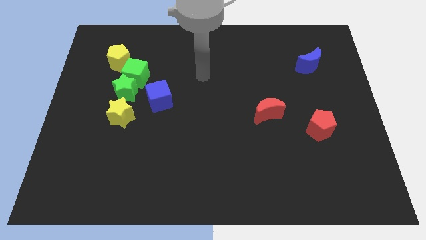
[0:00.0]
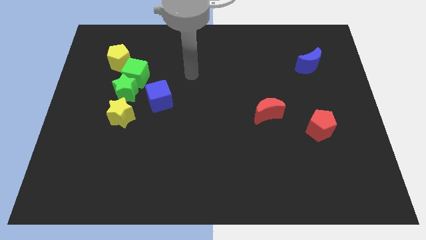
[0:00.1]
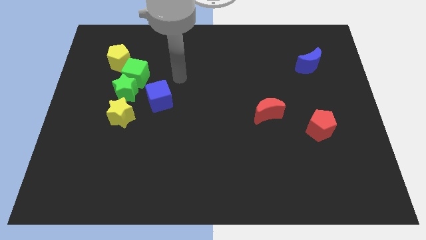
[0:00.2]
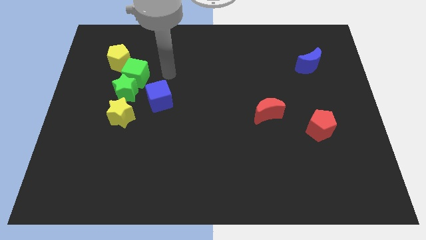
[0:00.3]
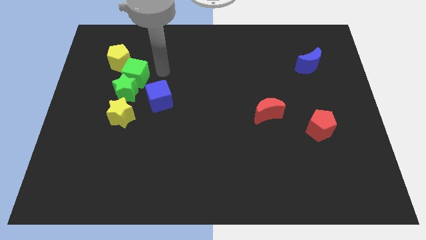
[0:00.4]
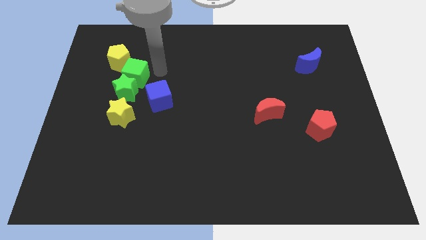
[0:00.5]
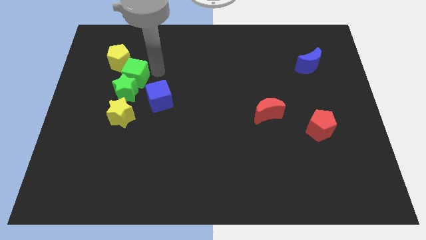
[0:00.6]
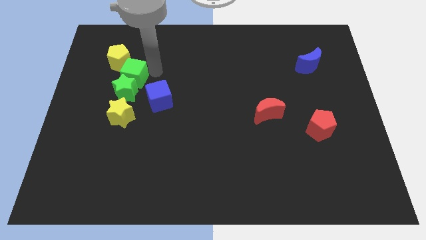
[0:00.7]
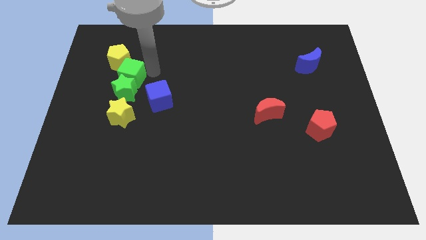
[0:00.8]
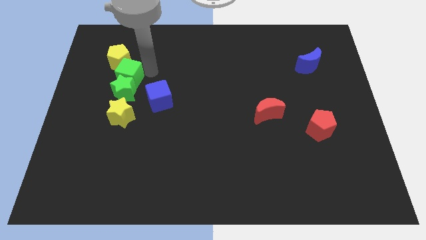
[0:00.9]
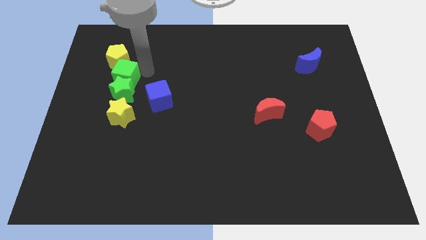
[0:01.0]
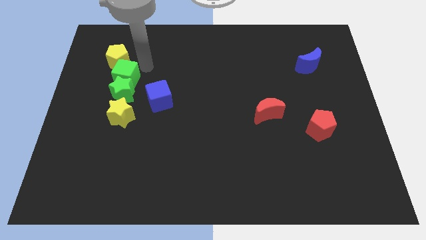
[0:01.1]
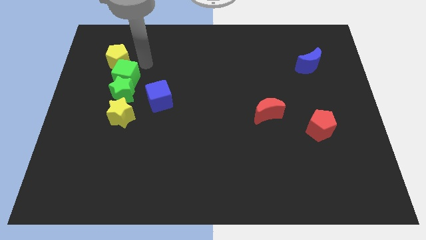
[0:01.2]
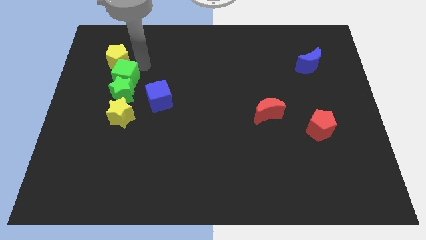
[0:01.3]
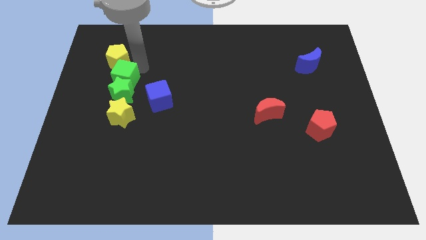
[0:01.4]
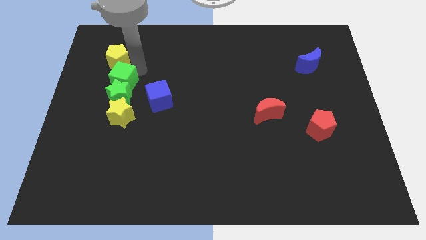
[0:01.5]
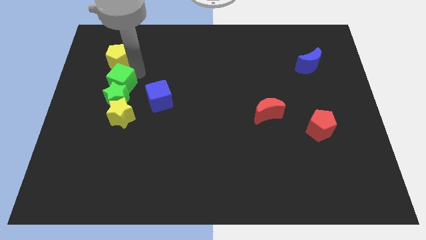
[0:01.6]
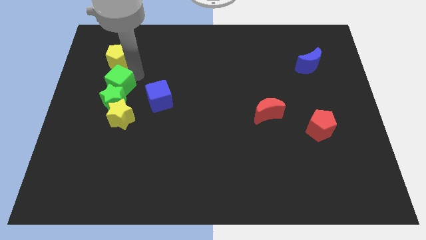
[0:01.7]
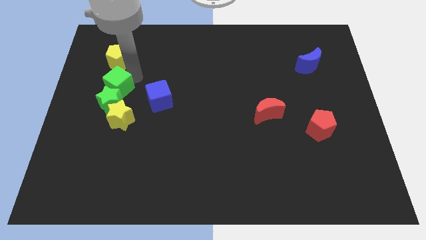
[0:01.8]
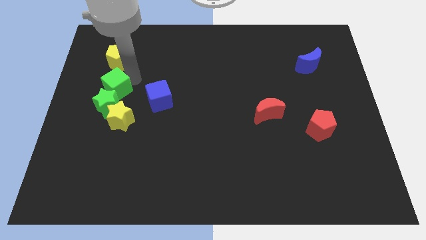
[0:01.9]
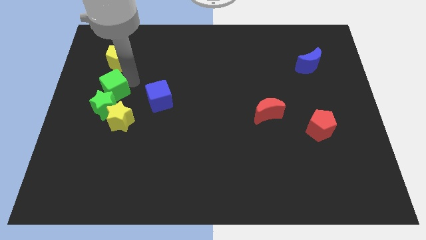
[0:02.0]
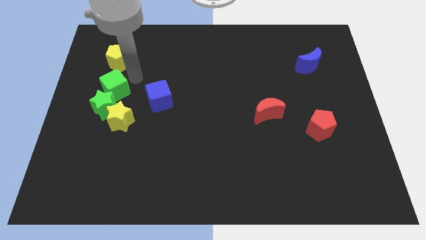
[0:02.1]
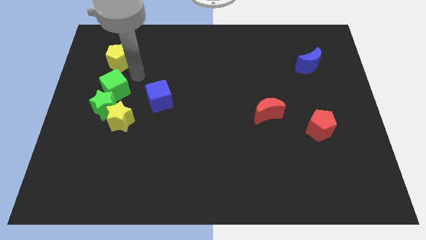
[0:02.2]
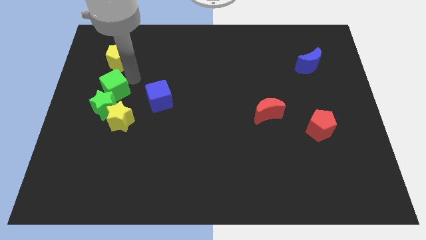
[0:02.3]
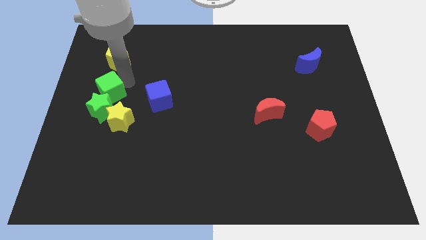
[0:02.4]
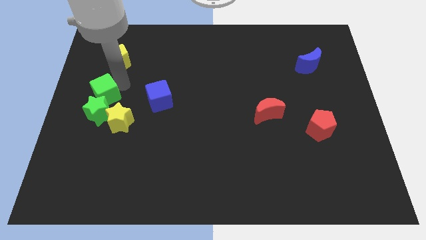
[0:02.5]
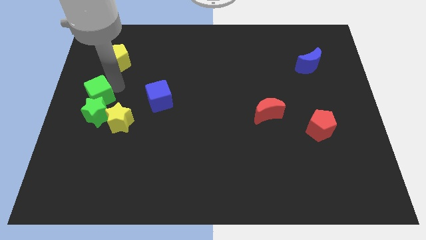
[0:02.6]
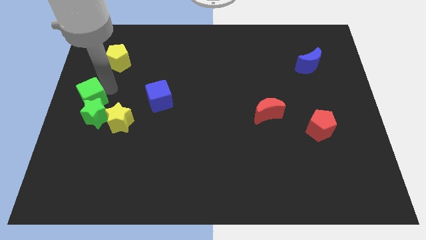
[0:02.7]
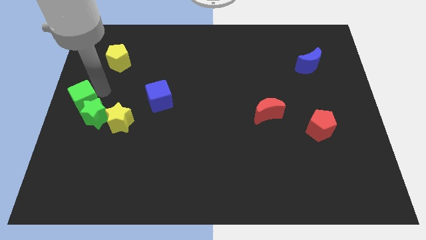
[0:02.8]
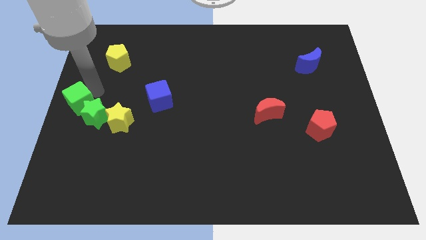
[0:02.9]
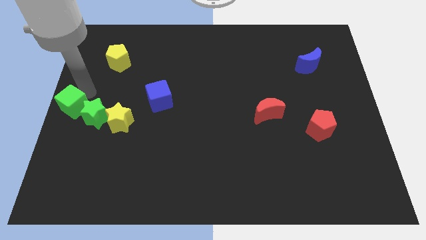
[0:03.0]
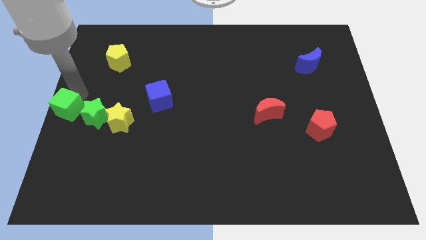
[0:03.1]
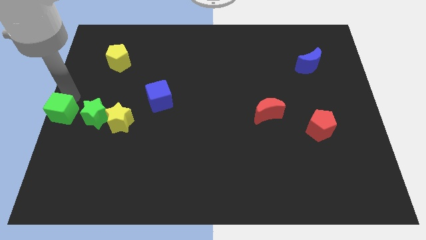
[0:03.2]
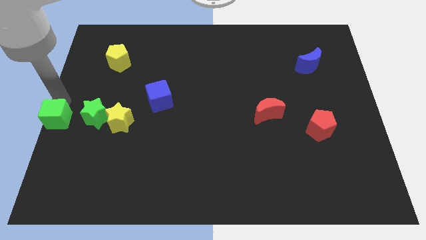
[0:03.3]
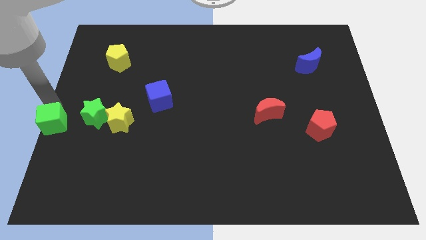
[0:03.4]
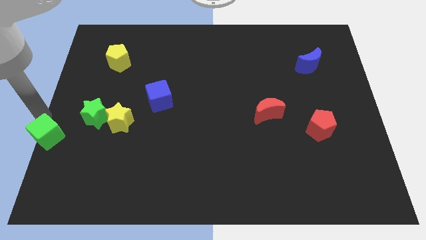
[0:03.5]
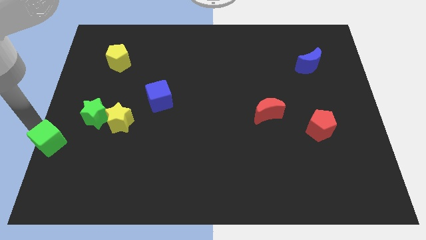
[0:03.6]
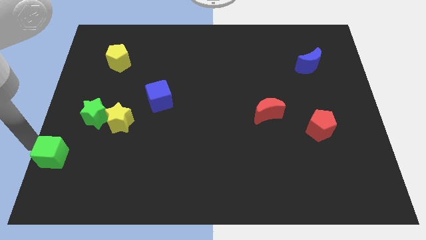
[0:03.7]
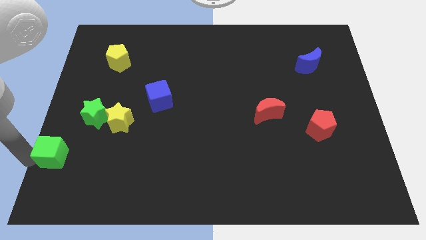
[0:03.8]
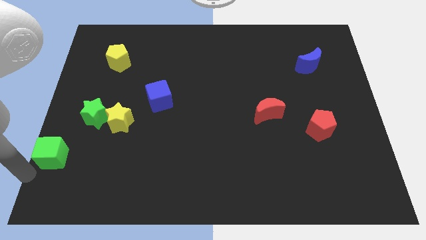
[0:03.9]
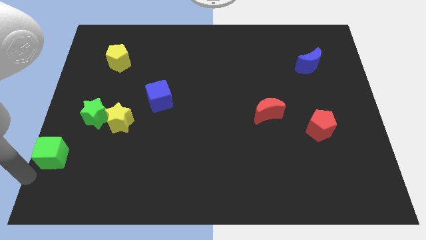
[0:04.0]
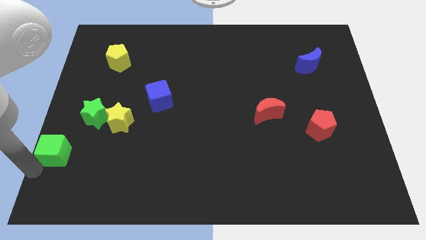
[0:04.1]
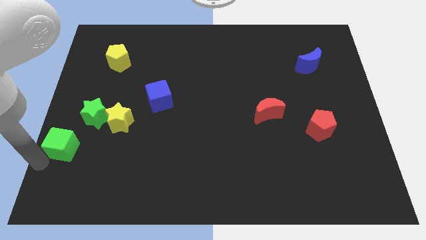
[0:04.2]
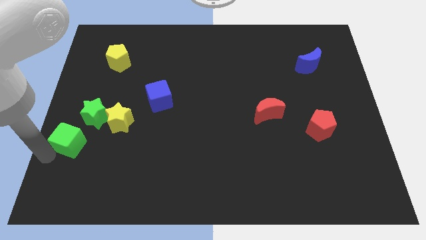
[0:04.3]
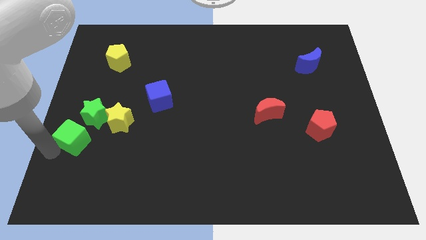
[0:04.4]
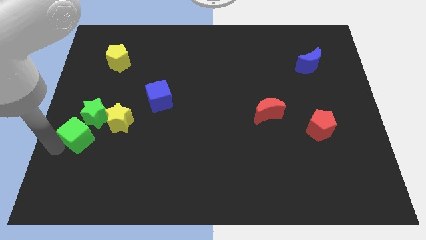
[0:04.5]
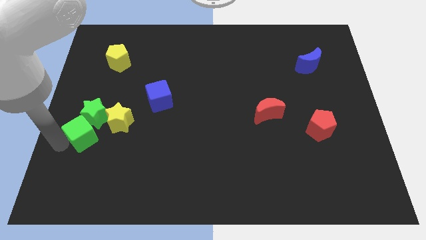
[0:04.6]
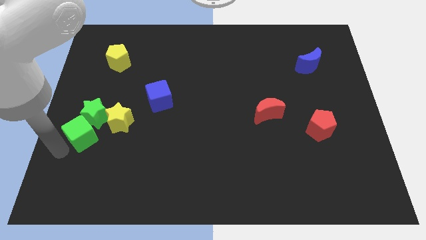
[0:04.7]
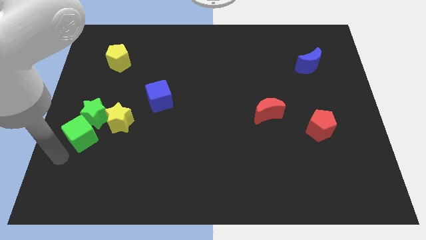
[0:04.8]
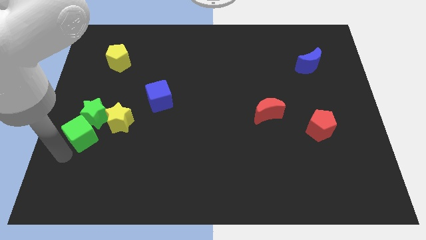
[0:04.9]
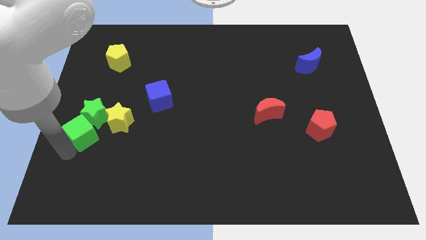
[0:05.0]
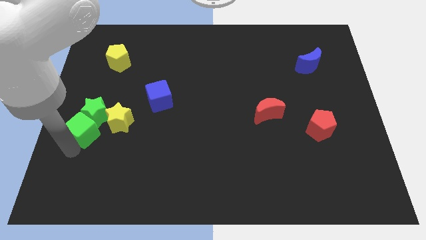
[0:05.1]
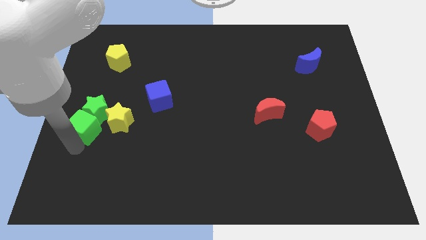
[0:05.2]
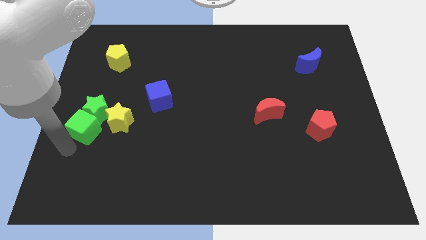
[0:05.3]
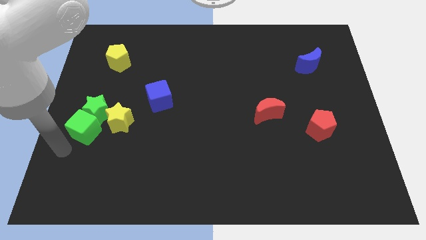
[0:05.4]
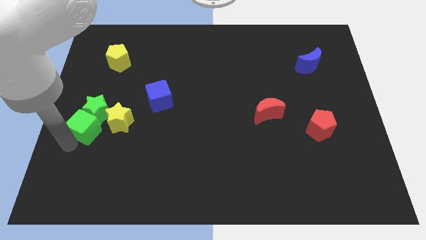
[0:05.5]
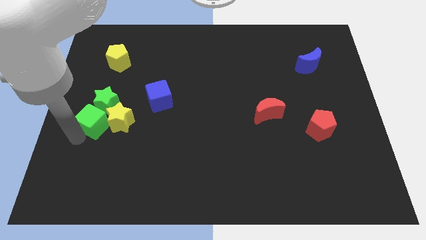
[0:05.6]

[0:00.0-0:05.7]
slide the green cube close to the yellow star
